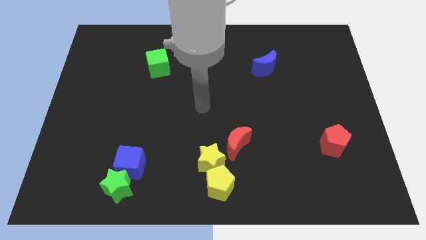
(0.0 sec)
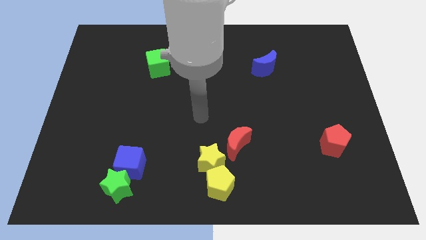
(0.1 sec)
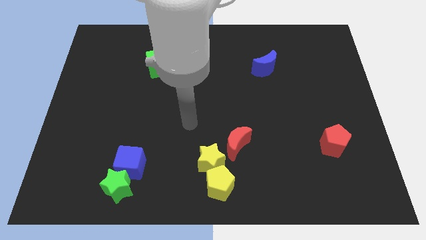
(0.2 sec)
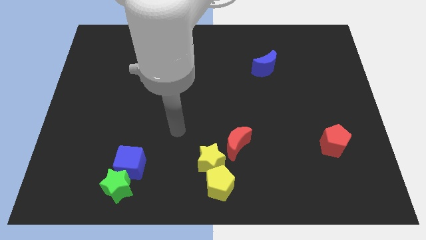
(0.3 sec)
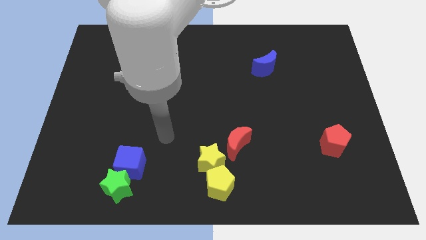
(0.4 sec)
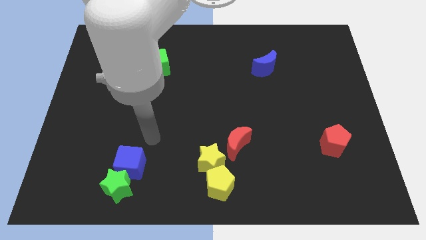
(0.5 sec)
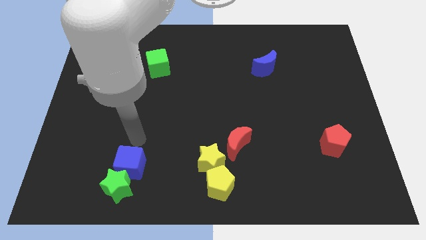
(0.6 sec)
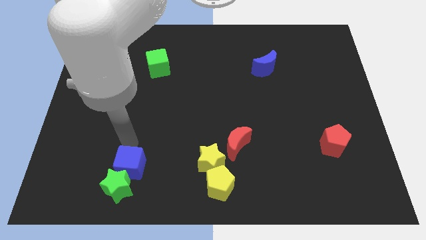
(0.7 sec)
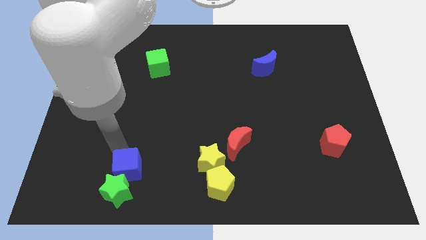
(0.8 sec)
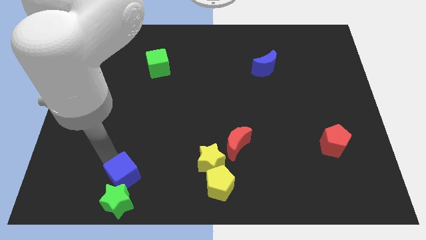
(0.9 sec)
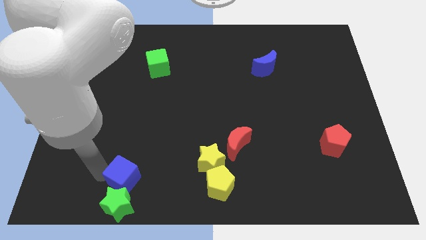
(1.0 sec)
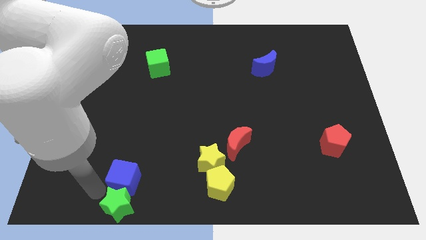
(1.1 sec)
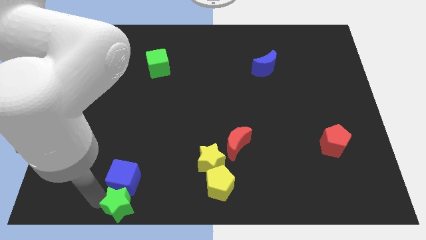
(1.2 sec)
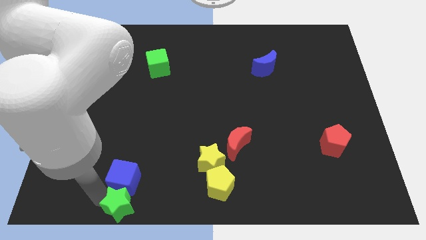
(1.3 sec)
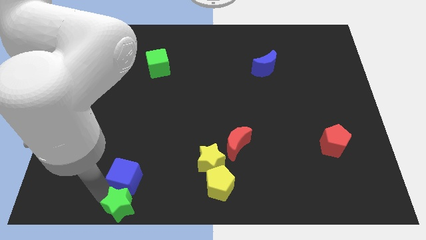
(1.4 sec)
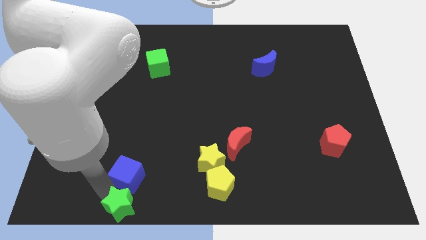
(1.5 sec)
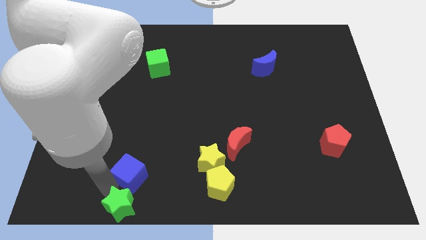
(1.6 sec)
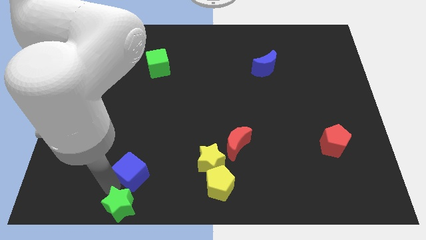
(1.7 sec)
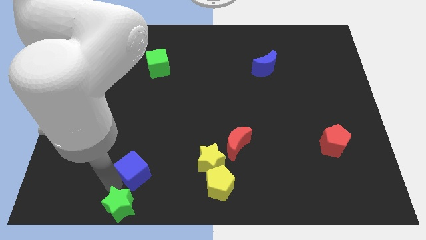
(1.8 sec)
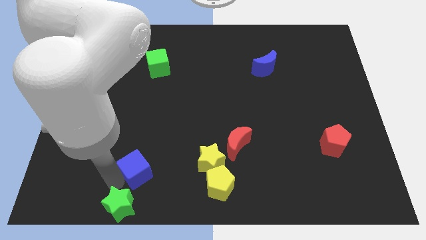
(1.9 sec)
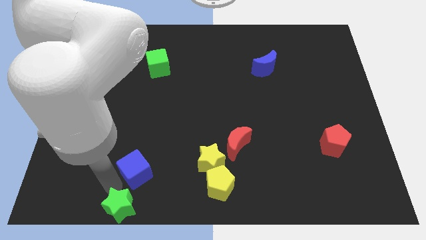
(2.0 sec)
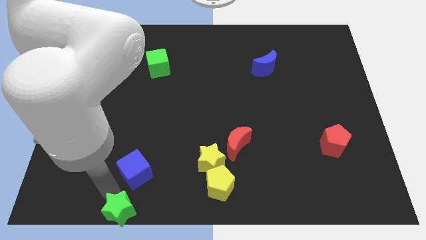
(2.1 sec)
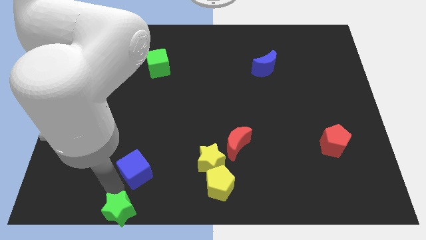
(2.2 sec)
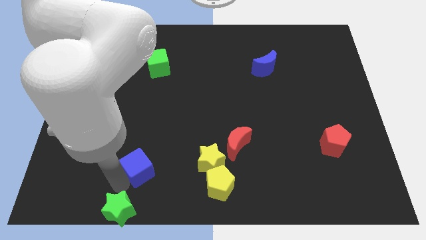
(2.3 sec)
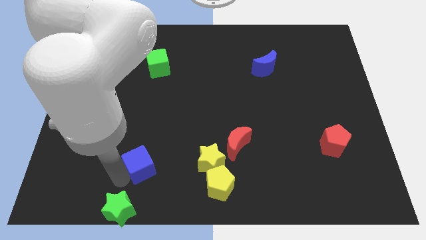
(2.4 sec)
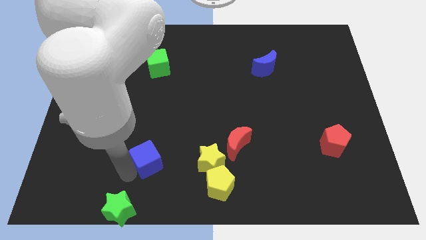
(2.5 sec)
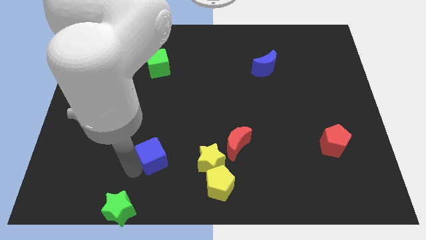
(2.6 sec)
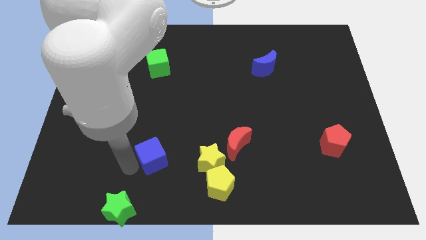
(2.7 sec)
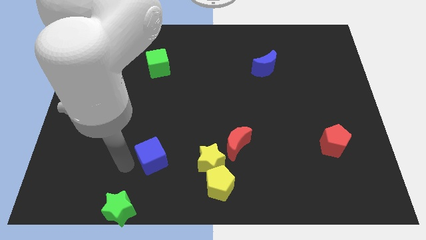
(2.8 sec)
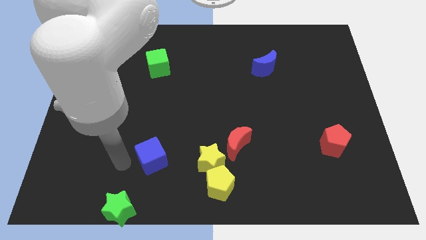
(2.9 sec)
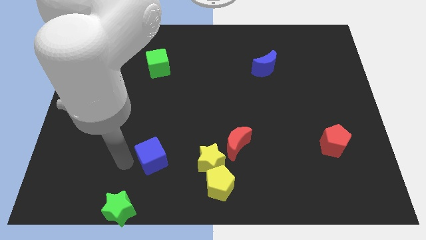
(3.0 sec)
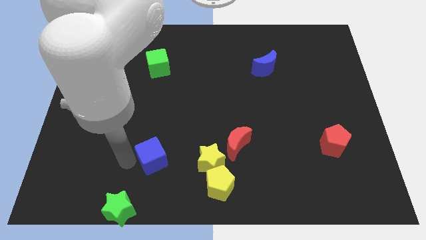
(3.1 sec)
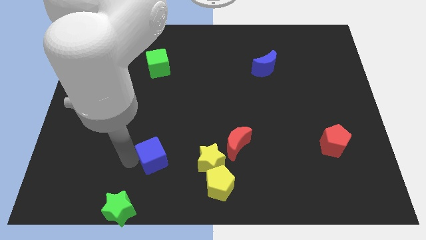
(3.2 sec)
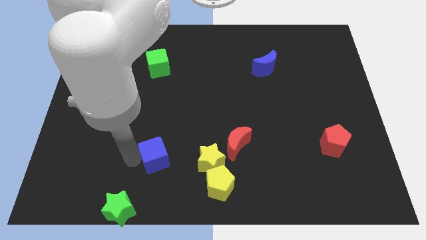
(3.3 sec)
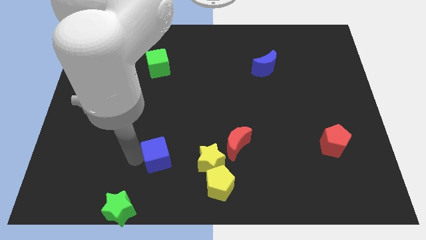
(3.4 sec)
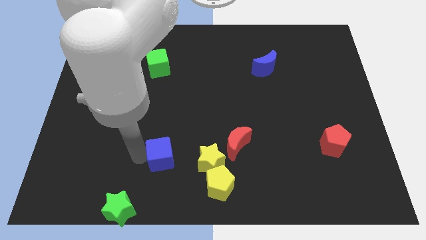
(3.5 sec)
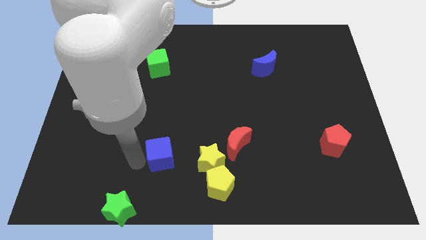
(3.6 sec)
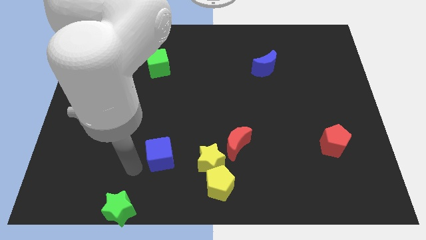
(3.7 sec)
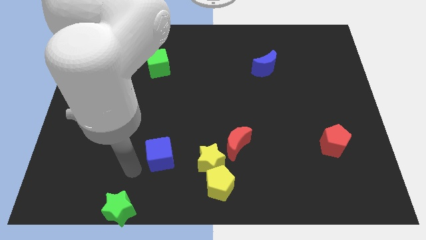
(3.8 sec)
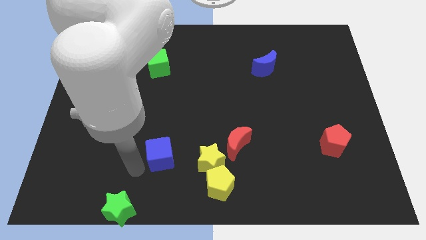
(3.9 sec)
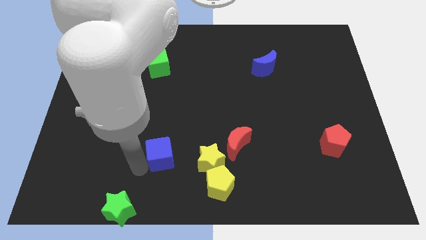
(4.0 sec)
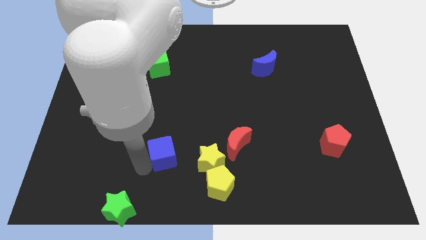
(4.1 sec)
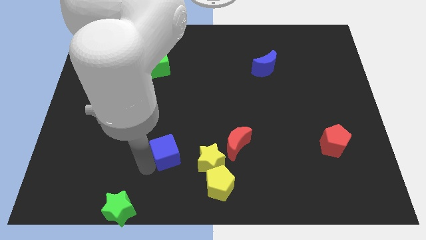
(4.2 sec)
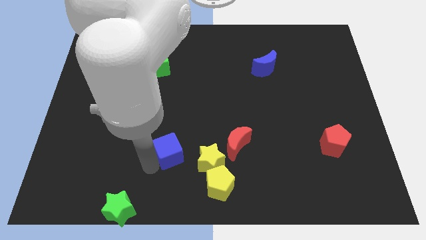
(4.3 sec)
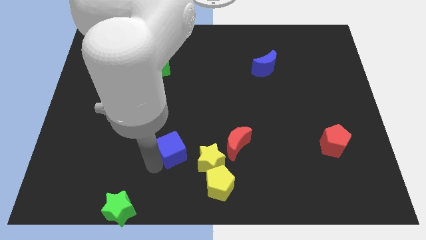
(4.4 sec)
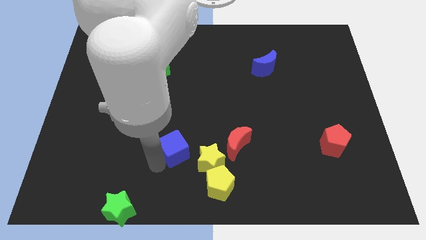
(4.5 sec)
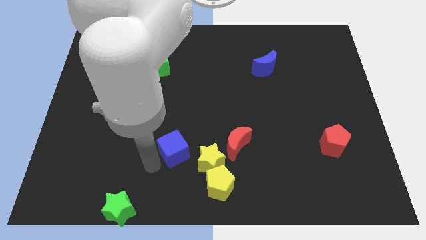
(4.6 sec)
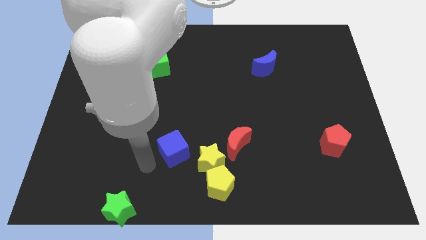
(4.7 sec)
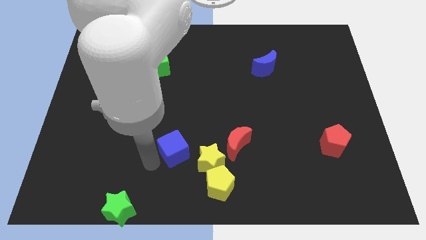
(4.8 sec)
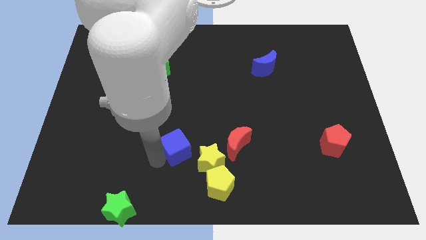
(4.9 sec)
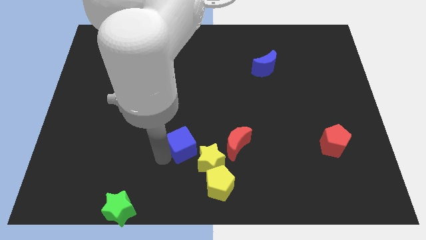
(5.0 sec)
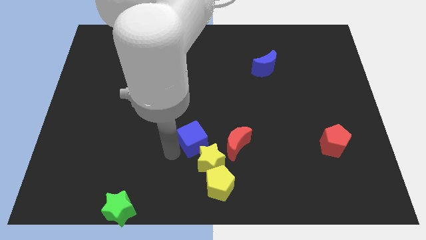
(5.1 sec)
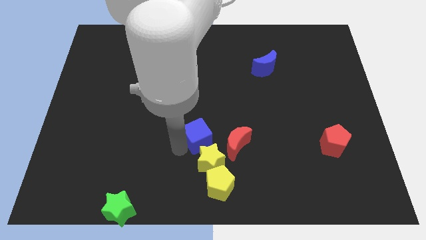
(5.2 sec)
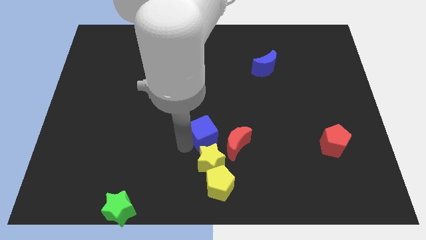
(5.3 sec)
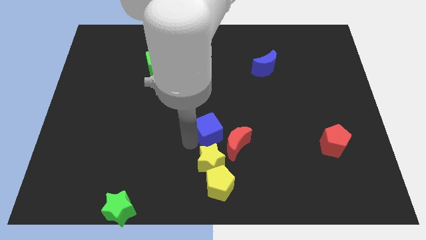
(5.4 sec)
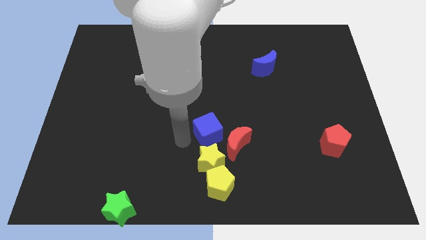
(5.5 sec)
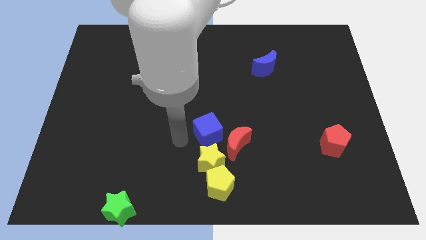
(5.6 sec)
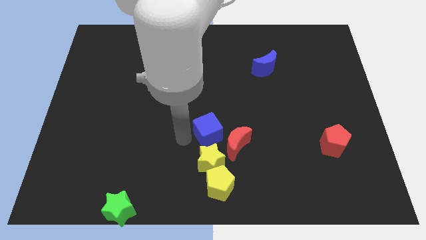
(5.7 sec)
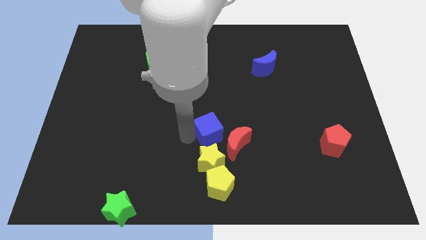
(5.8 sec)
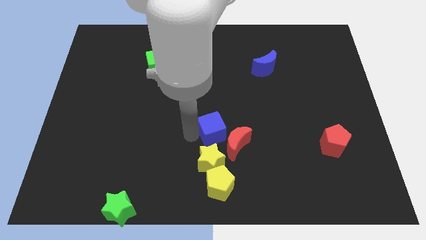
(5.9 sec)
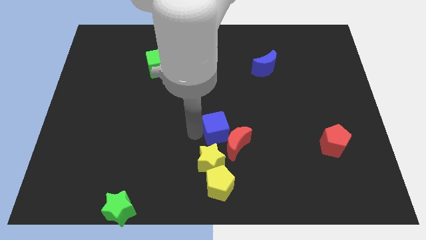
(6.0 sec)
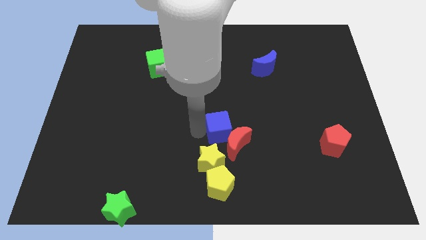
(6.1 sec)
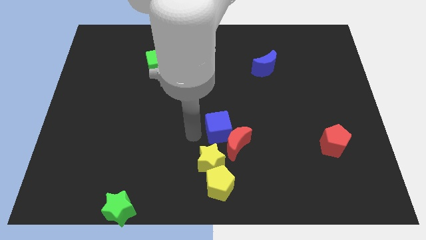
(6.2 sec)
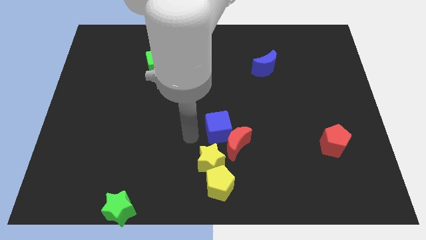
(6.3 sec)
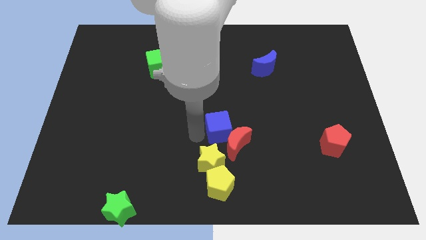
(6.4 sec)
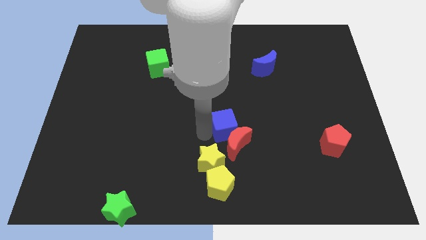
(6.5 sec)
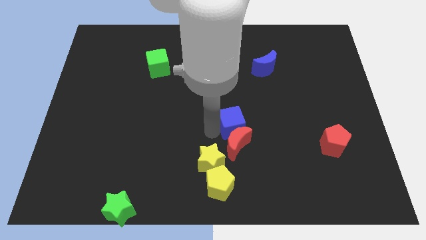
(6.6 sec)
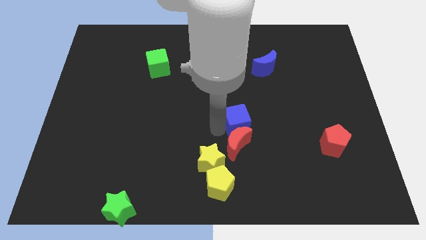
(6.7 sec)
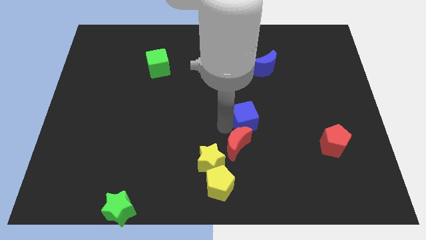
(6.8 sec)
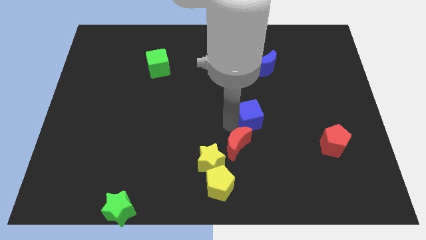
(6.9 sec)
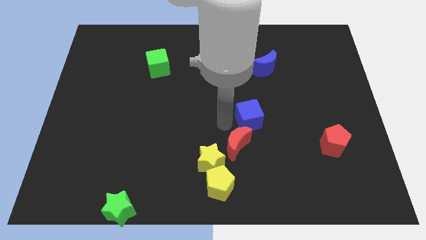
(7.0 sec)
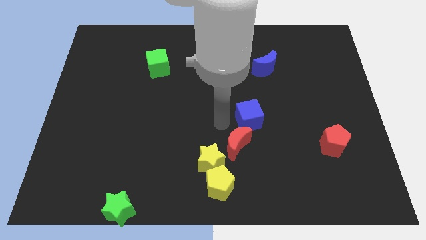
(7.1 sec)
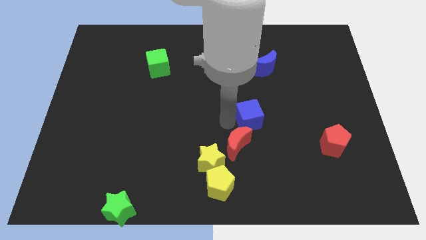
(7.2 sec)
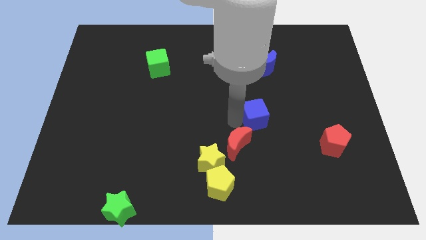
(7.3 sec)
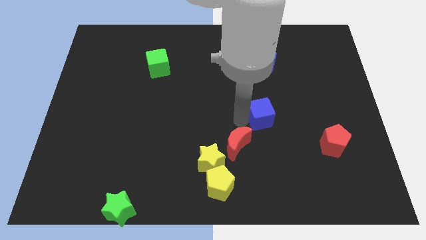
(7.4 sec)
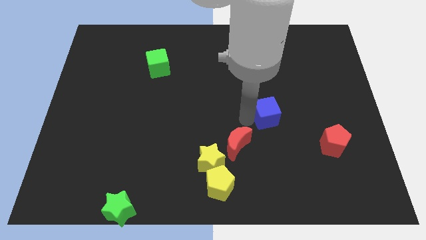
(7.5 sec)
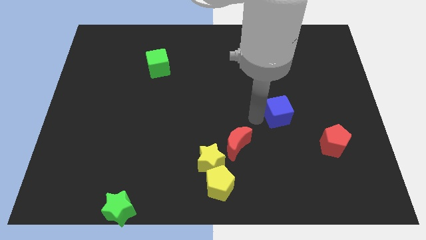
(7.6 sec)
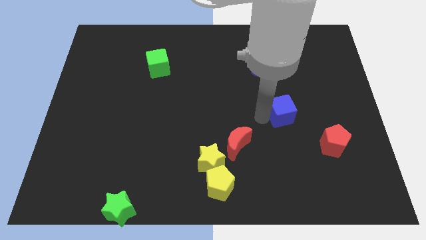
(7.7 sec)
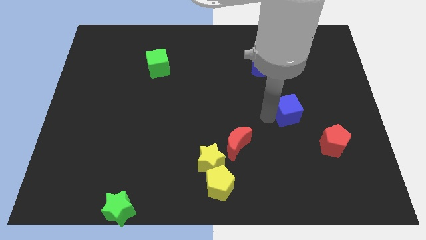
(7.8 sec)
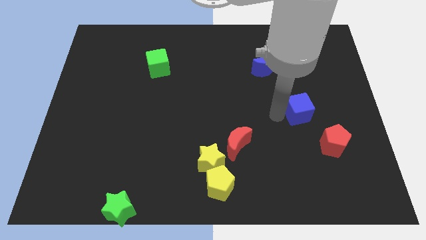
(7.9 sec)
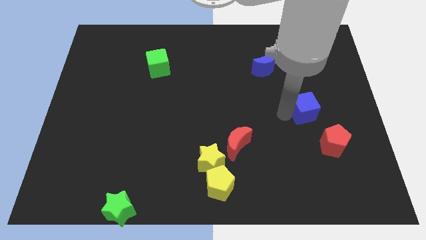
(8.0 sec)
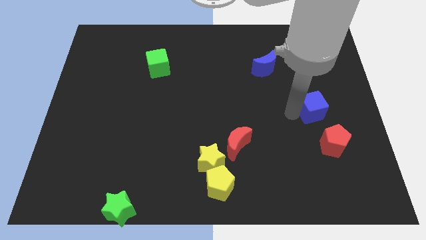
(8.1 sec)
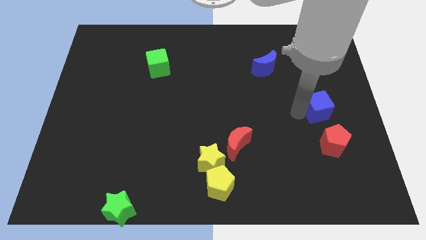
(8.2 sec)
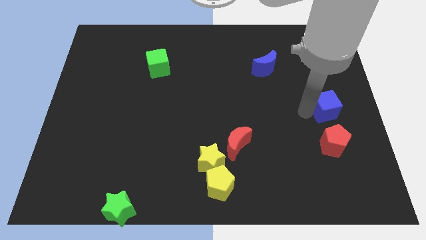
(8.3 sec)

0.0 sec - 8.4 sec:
slide the blue cube to the center right
